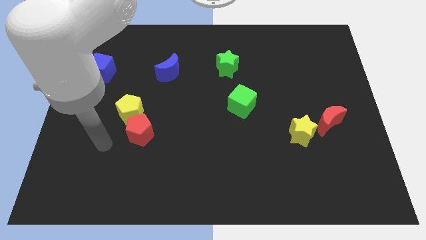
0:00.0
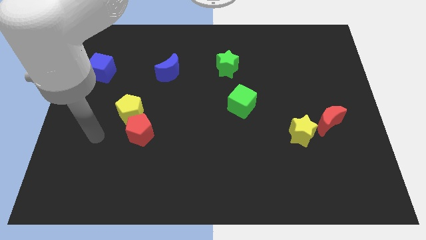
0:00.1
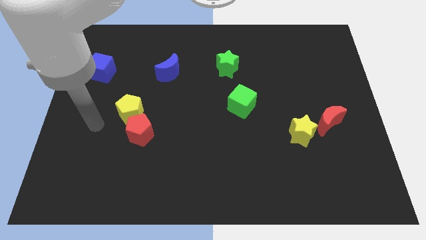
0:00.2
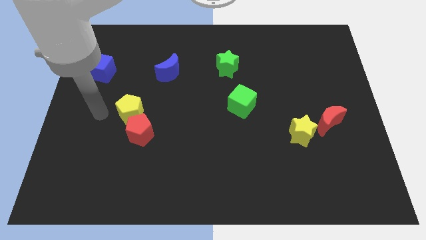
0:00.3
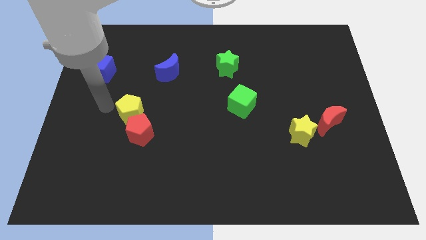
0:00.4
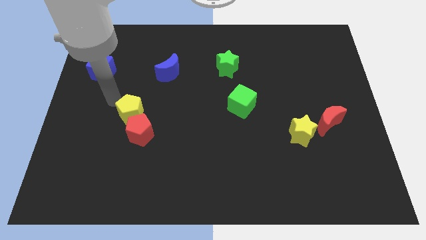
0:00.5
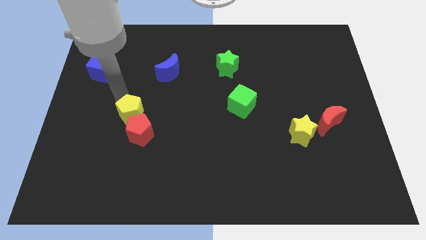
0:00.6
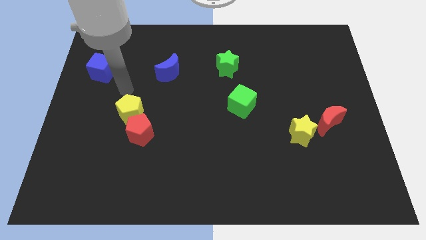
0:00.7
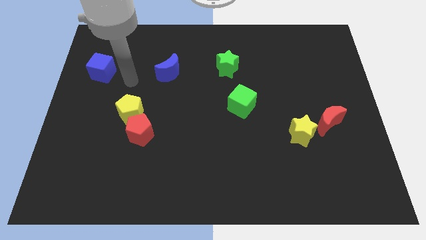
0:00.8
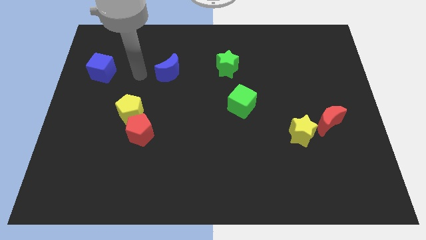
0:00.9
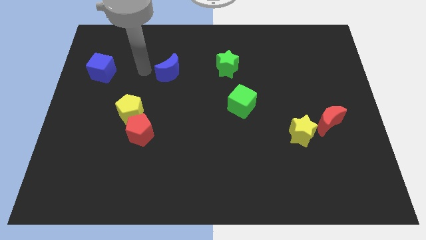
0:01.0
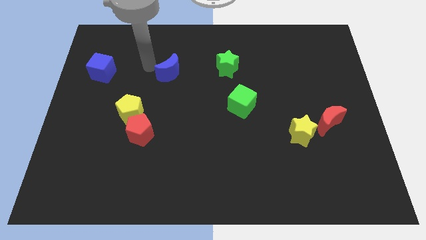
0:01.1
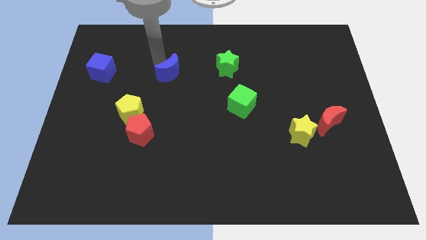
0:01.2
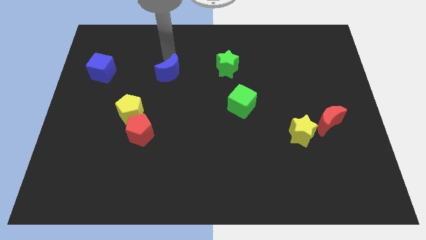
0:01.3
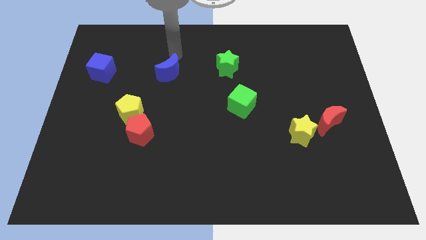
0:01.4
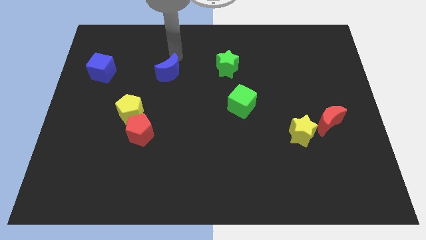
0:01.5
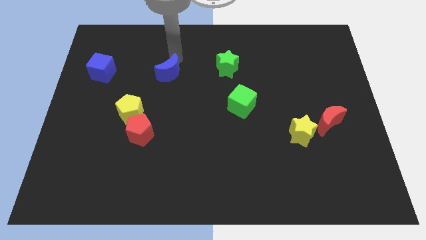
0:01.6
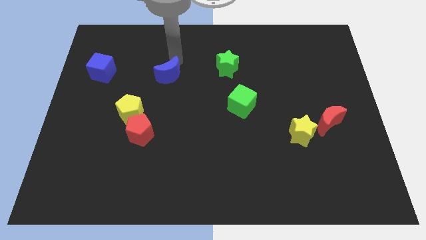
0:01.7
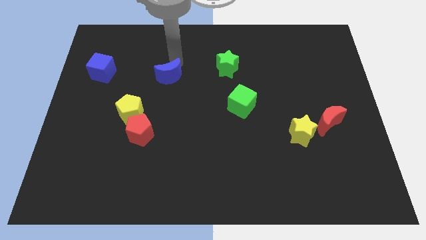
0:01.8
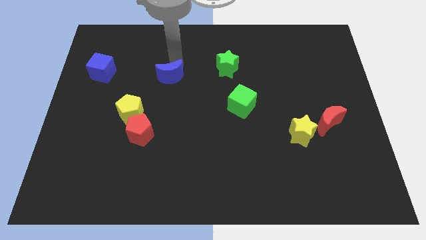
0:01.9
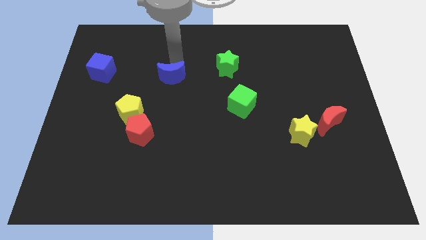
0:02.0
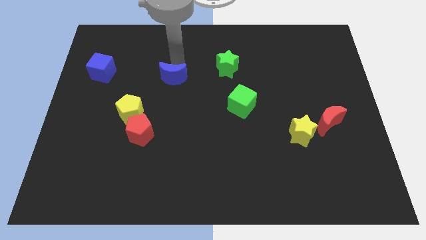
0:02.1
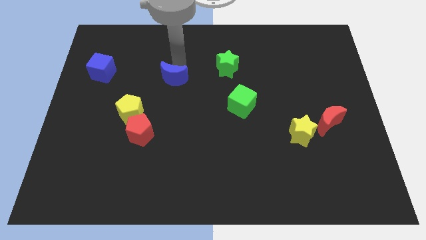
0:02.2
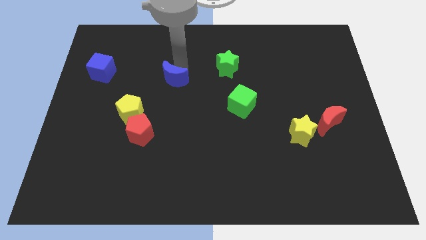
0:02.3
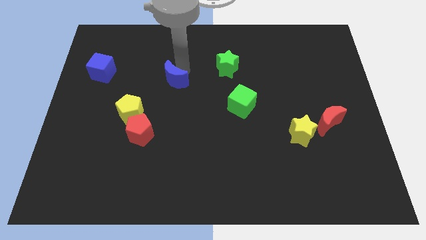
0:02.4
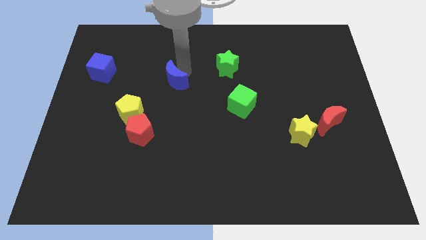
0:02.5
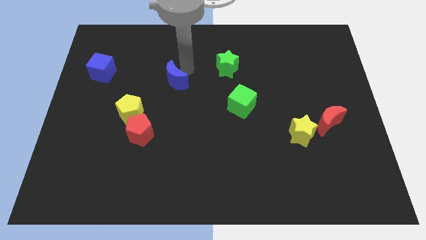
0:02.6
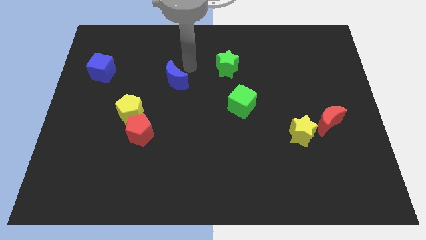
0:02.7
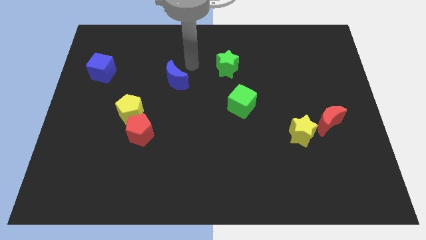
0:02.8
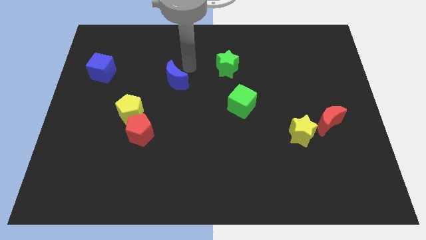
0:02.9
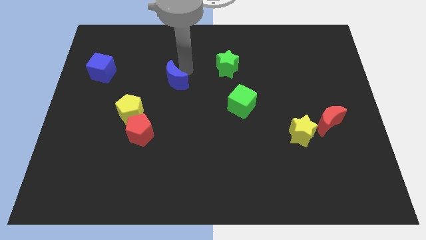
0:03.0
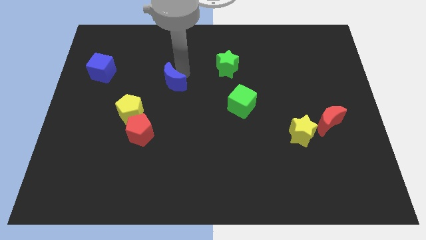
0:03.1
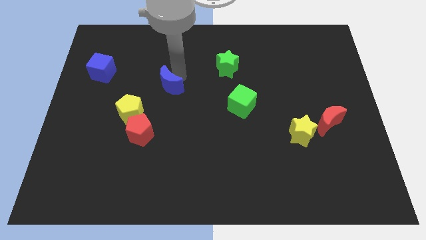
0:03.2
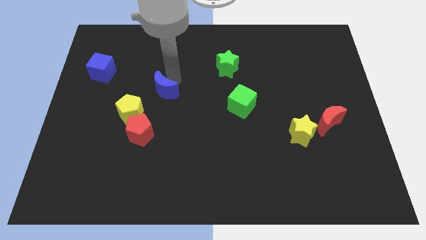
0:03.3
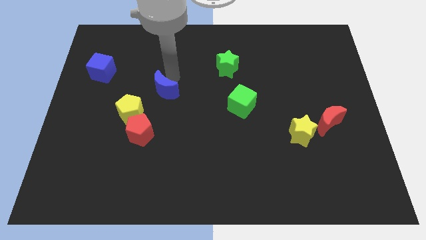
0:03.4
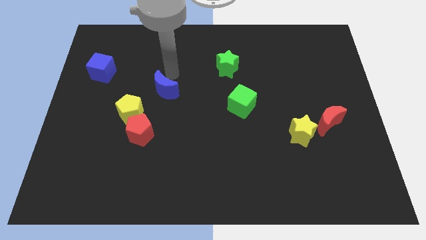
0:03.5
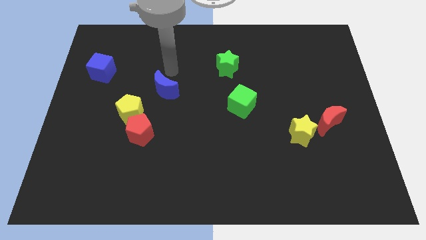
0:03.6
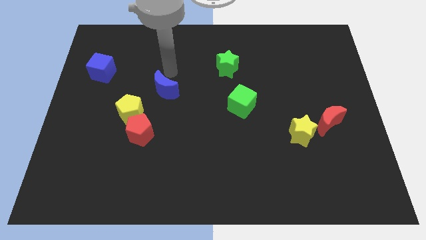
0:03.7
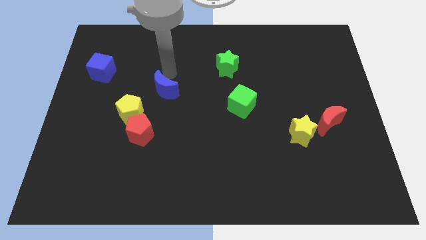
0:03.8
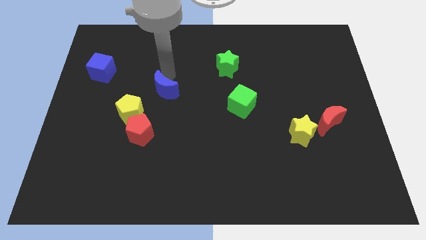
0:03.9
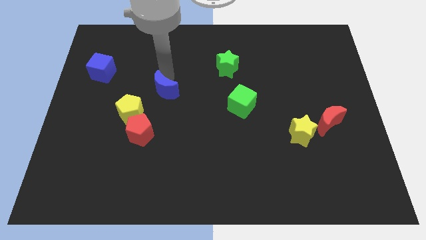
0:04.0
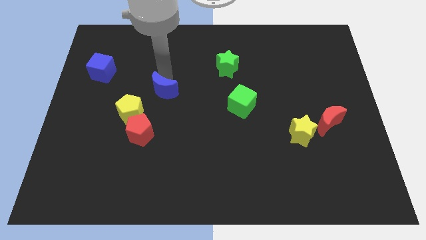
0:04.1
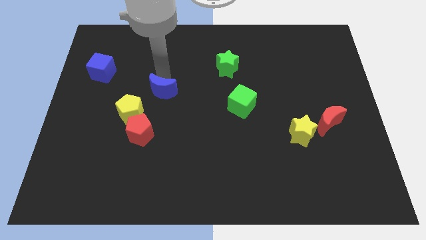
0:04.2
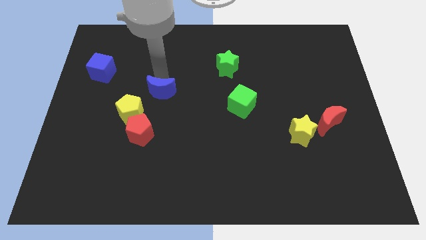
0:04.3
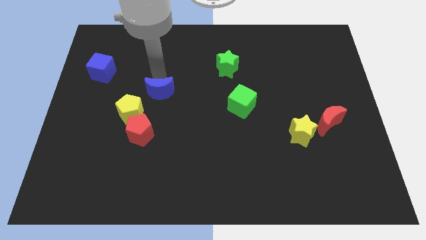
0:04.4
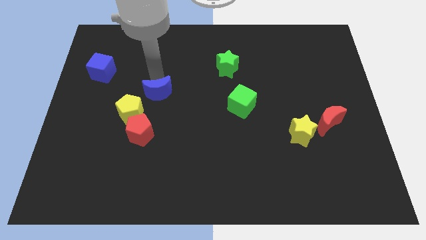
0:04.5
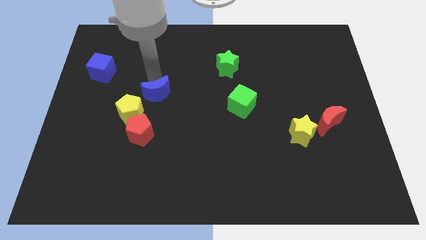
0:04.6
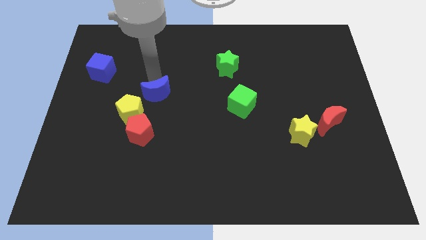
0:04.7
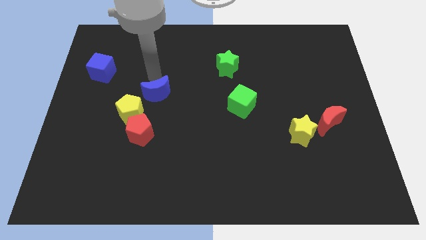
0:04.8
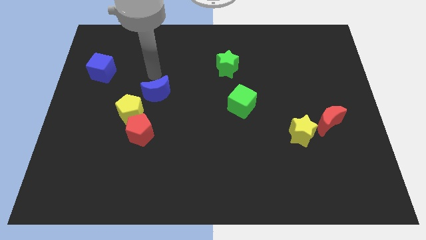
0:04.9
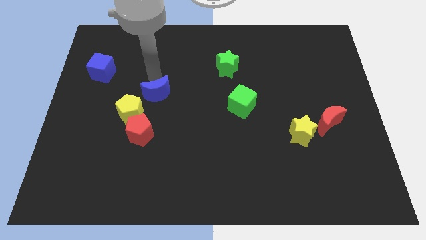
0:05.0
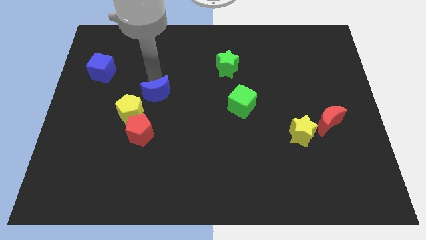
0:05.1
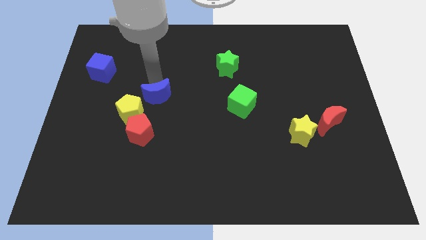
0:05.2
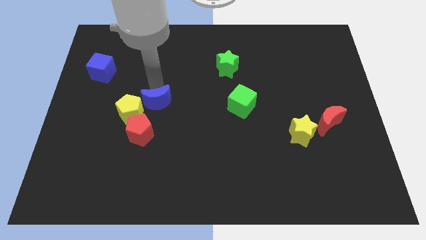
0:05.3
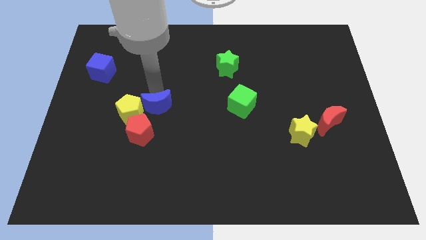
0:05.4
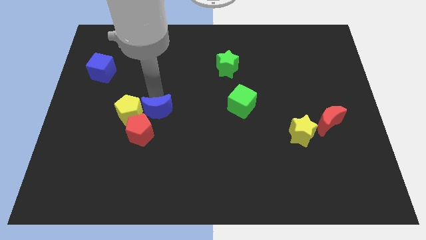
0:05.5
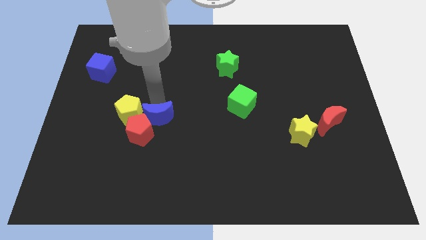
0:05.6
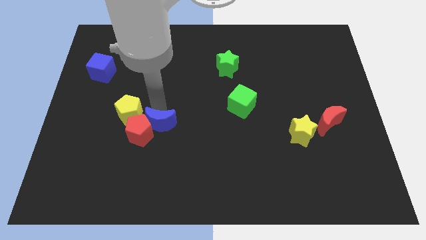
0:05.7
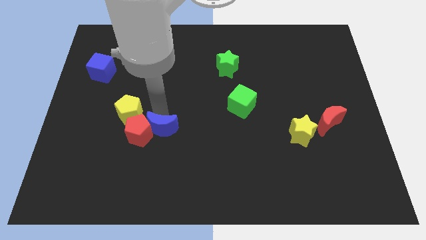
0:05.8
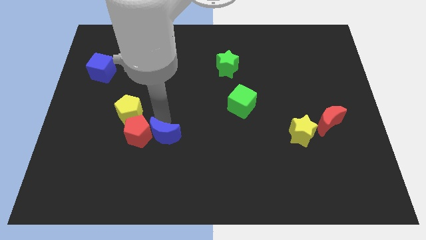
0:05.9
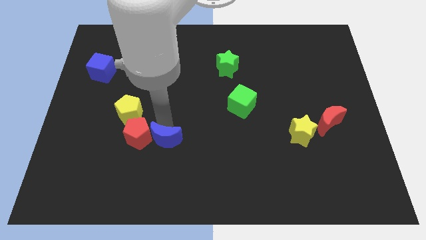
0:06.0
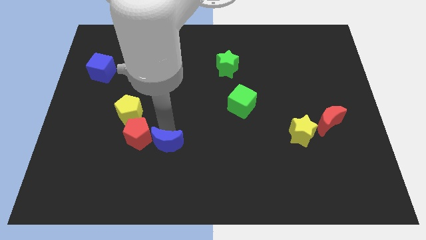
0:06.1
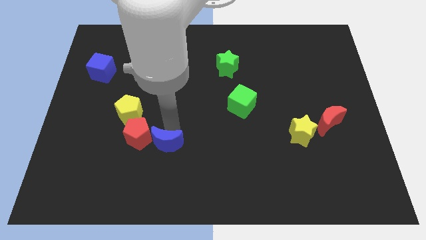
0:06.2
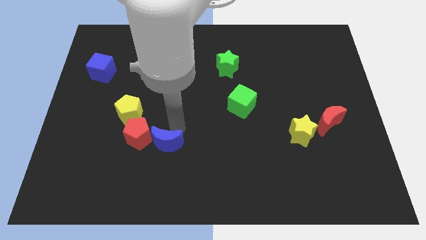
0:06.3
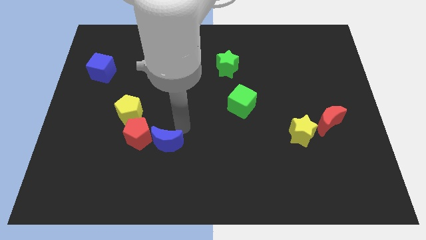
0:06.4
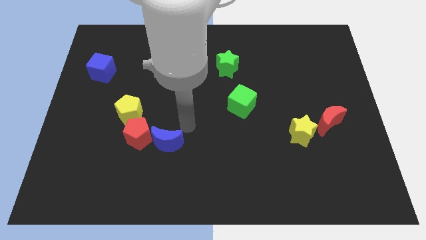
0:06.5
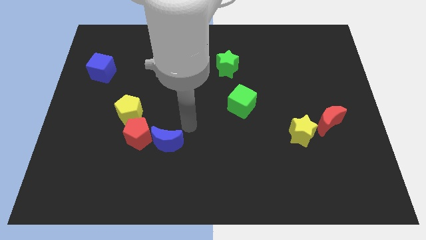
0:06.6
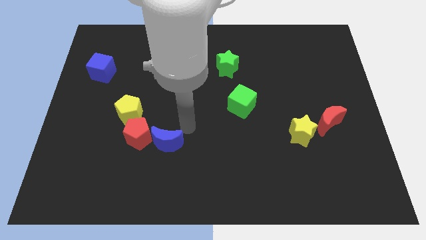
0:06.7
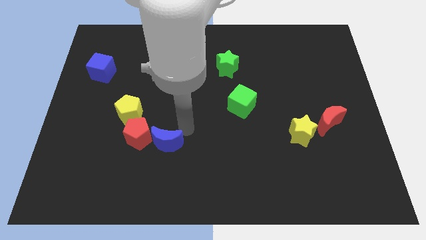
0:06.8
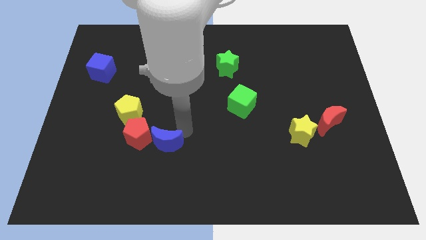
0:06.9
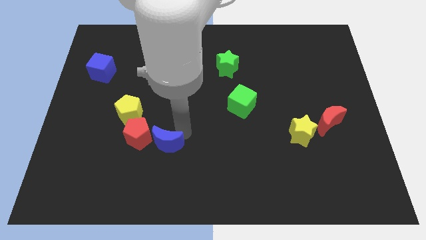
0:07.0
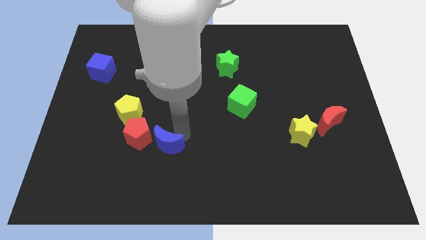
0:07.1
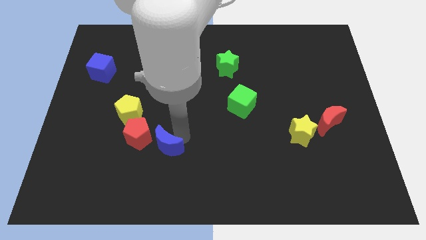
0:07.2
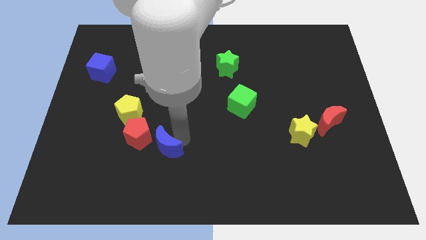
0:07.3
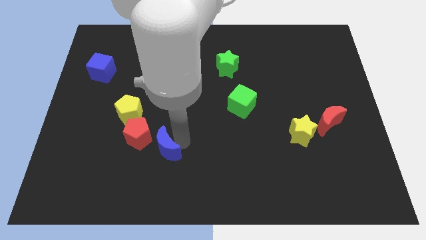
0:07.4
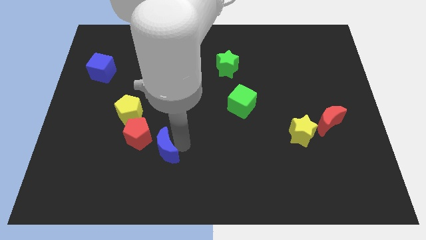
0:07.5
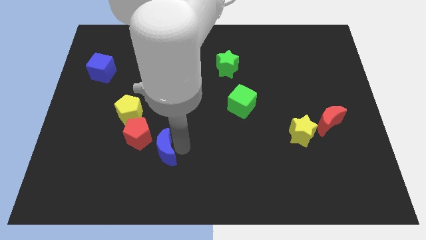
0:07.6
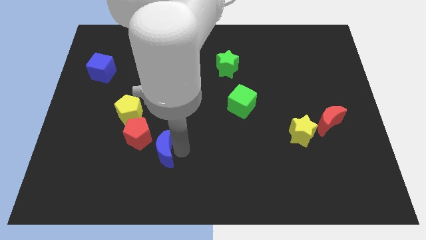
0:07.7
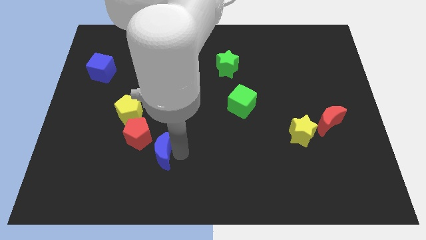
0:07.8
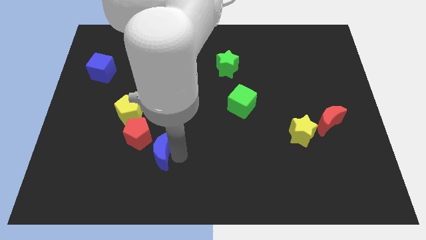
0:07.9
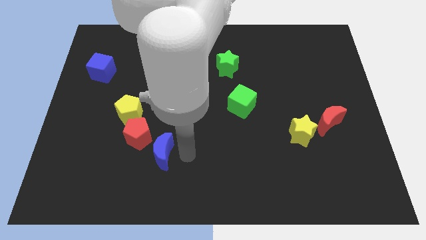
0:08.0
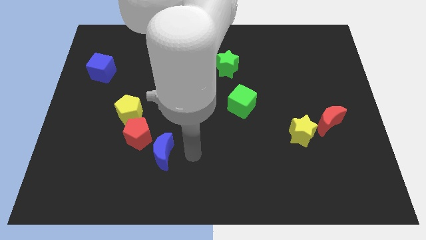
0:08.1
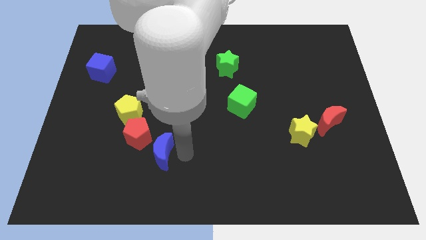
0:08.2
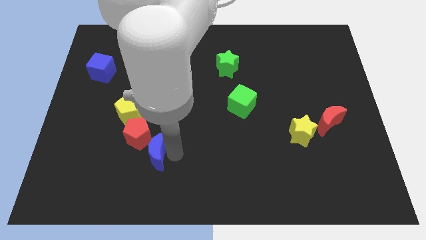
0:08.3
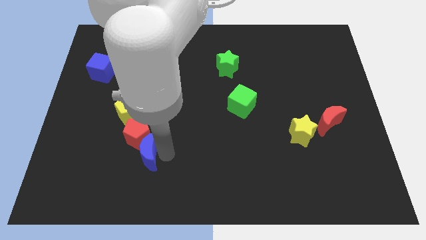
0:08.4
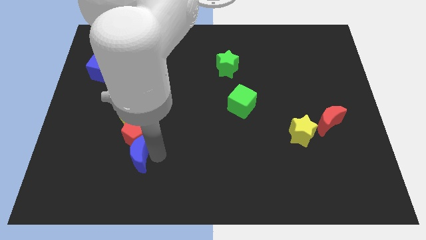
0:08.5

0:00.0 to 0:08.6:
slide the blue moon below the yellow pentagon
